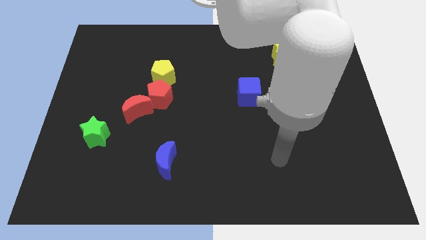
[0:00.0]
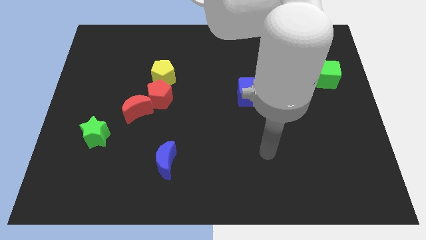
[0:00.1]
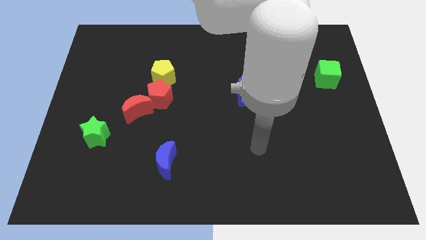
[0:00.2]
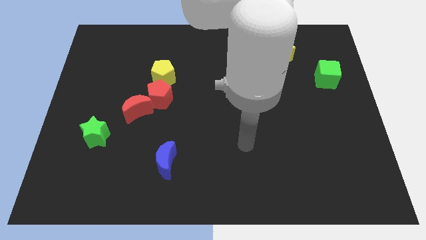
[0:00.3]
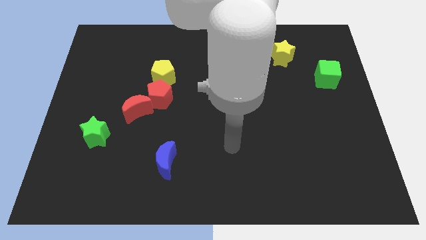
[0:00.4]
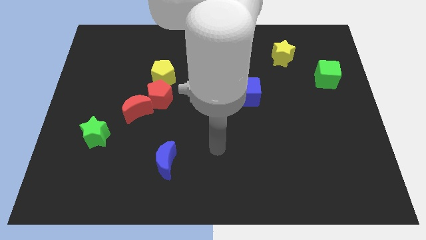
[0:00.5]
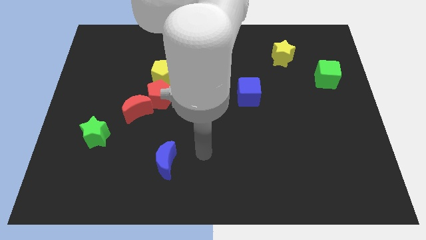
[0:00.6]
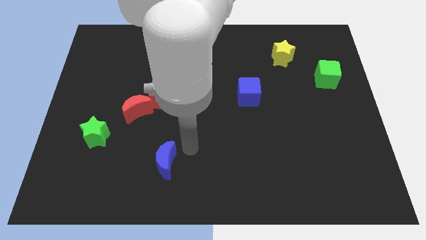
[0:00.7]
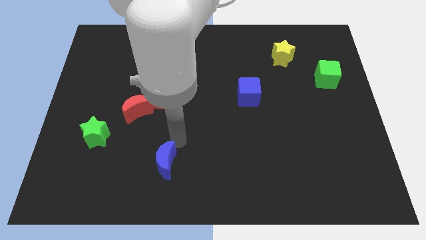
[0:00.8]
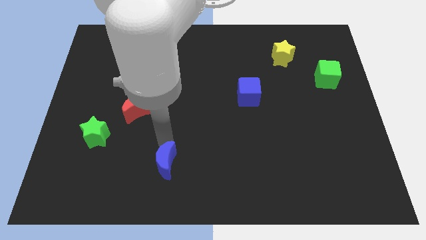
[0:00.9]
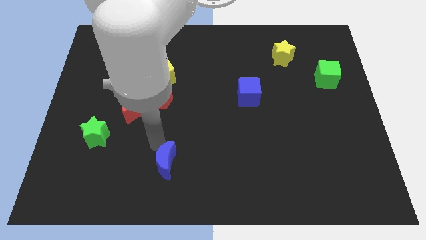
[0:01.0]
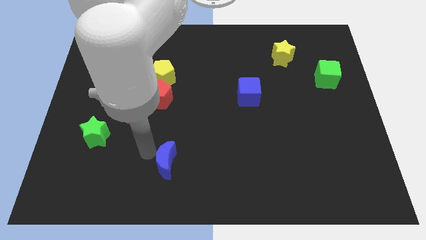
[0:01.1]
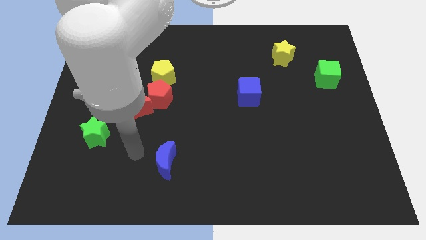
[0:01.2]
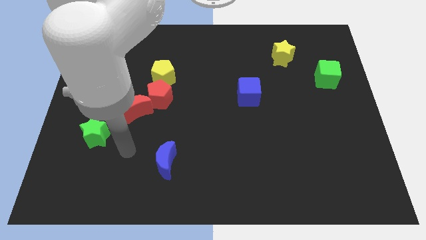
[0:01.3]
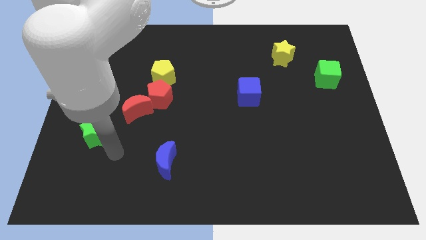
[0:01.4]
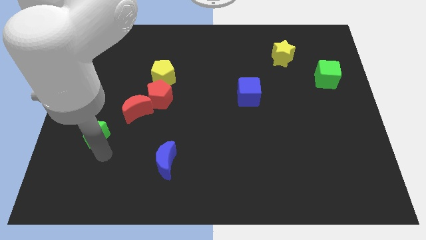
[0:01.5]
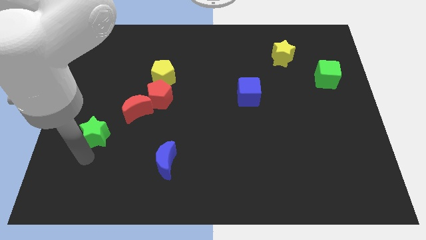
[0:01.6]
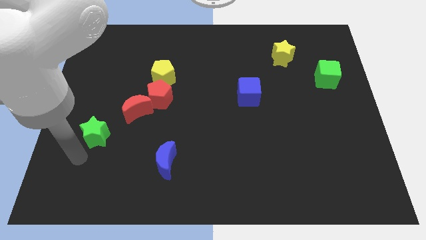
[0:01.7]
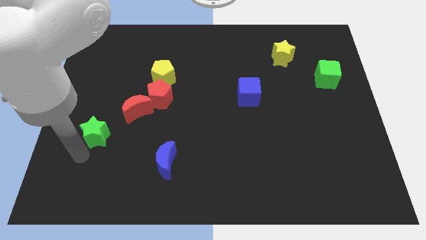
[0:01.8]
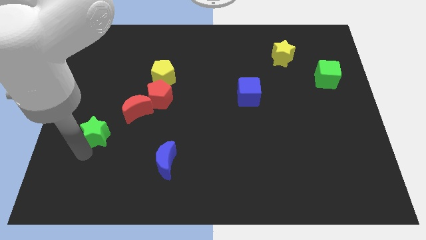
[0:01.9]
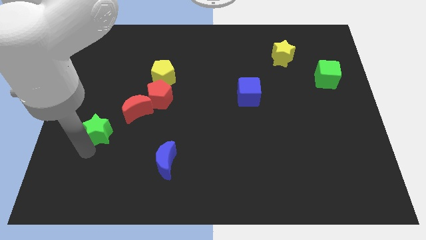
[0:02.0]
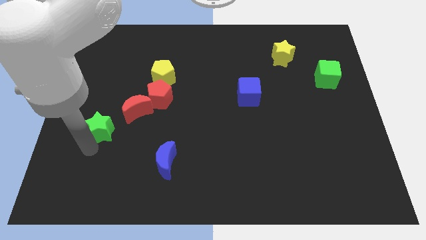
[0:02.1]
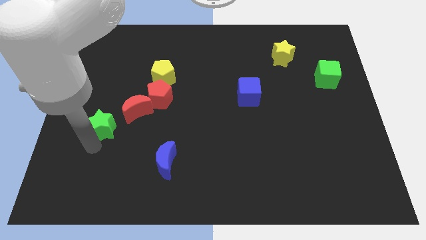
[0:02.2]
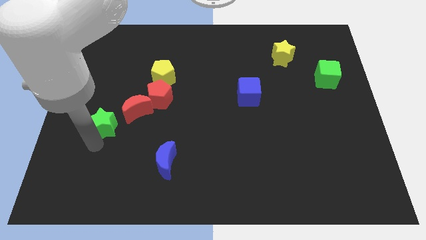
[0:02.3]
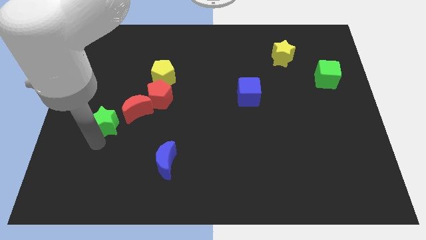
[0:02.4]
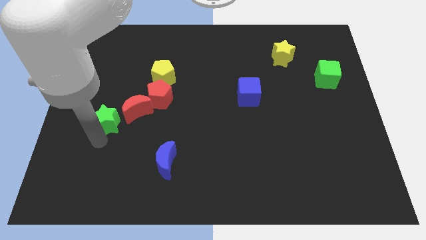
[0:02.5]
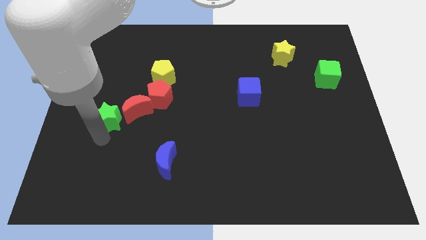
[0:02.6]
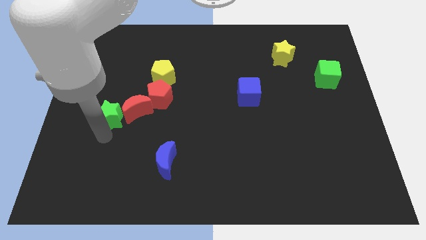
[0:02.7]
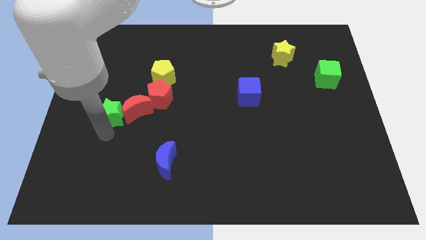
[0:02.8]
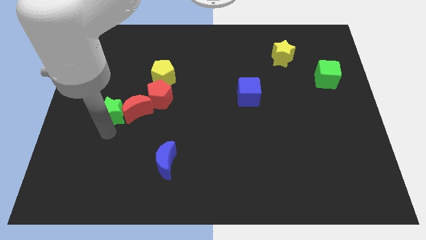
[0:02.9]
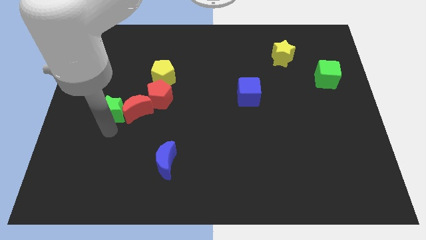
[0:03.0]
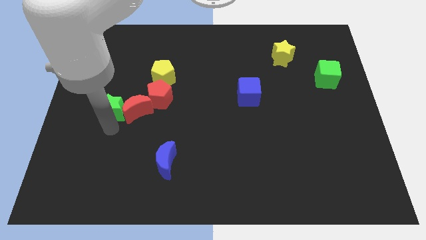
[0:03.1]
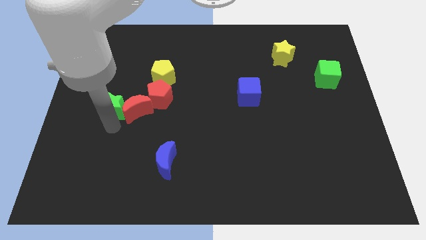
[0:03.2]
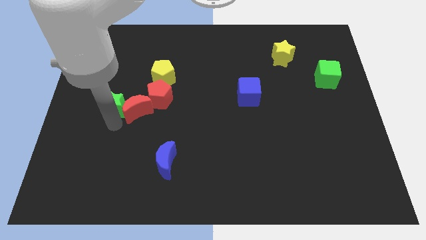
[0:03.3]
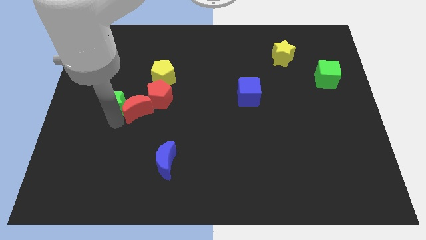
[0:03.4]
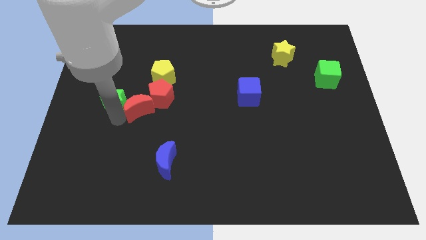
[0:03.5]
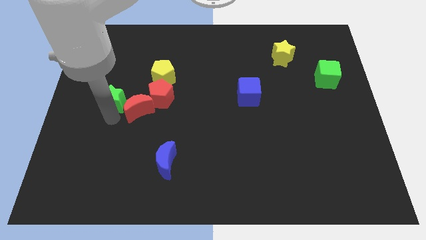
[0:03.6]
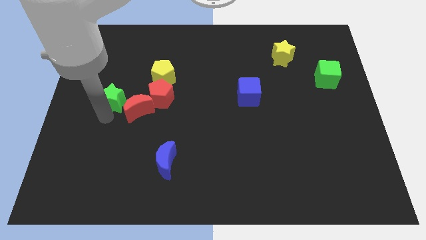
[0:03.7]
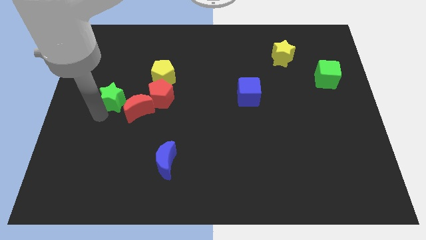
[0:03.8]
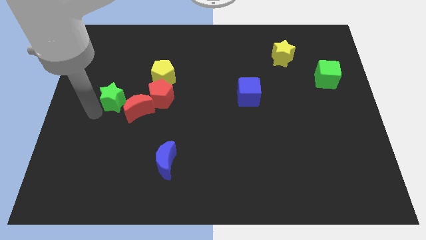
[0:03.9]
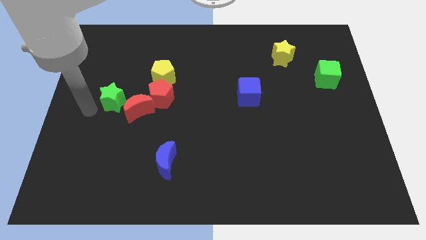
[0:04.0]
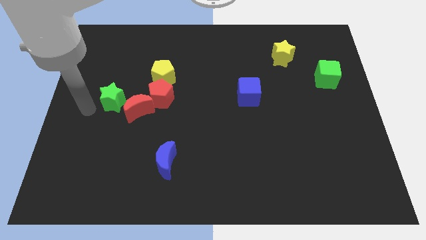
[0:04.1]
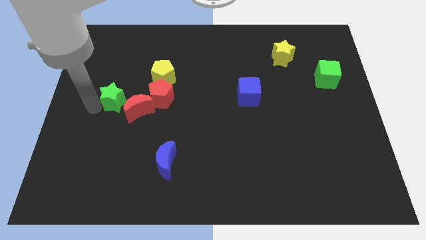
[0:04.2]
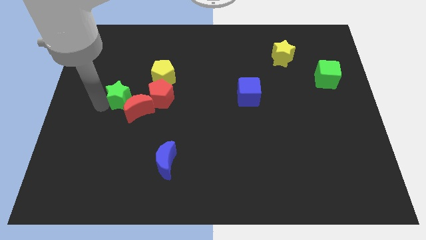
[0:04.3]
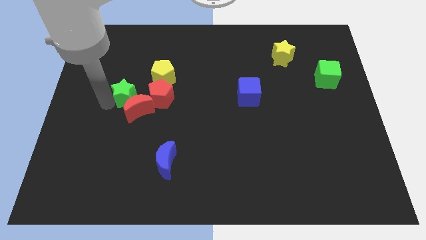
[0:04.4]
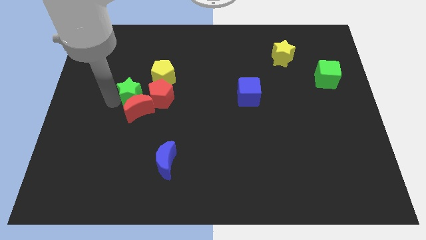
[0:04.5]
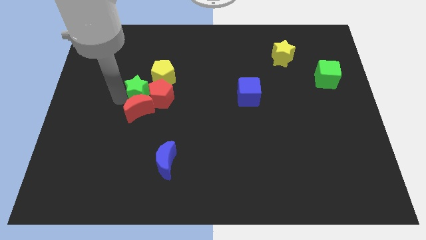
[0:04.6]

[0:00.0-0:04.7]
slide the green star to the red pentagon

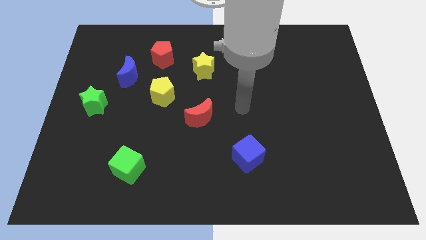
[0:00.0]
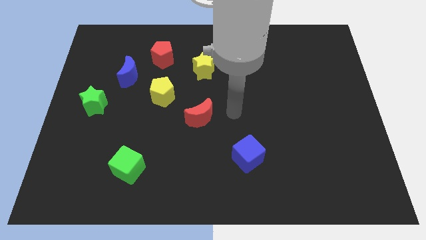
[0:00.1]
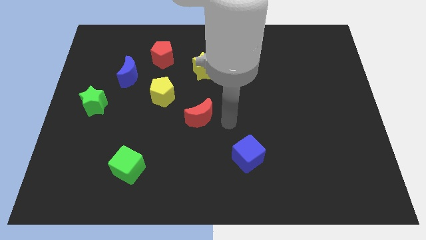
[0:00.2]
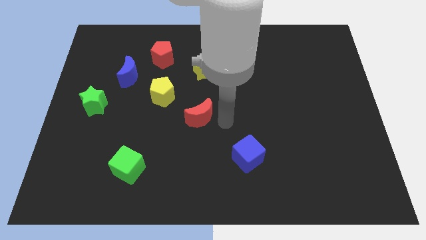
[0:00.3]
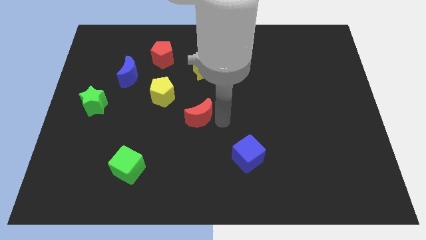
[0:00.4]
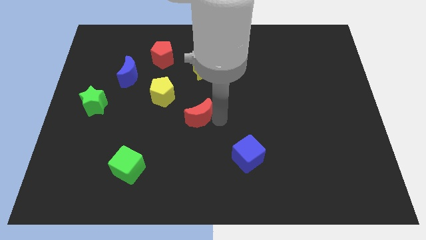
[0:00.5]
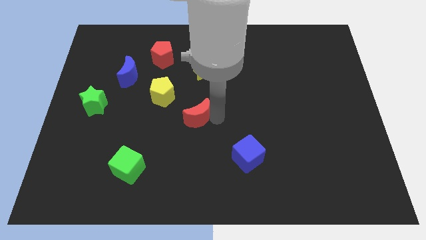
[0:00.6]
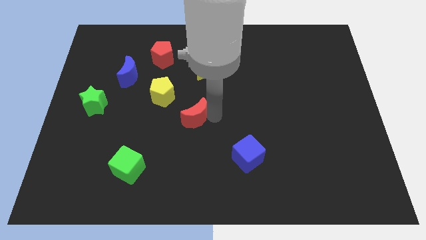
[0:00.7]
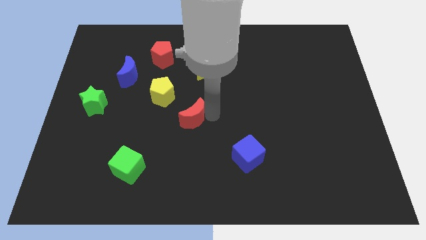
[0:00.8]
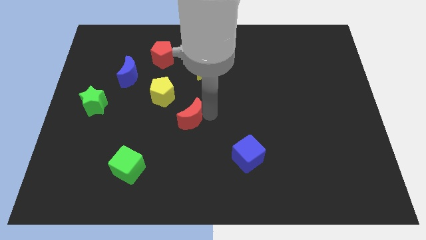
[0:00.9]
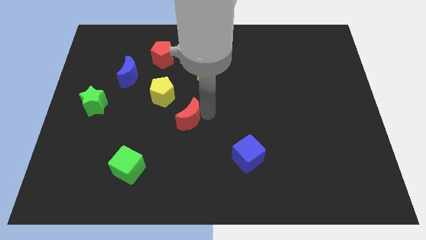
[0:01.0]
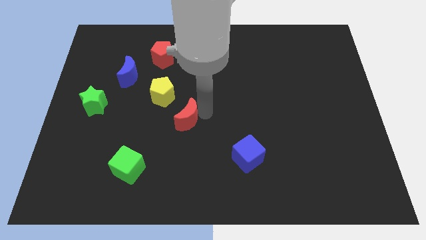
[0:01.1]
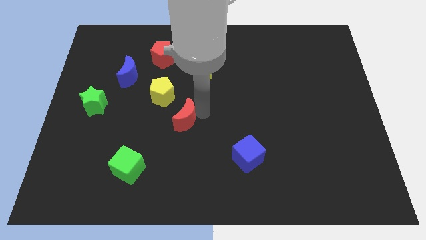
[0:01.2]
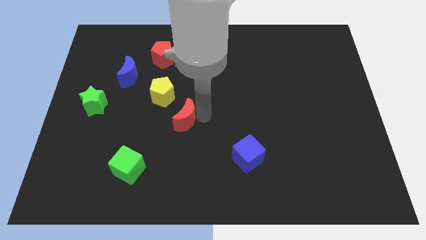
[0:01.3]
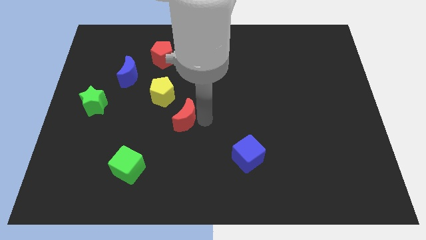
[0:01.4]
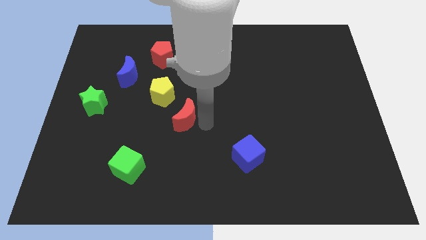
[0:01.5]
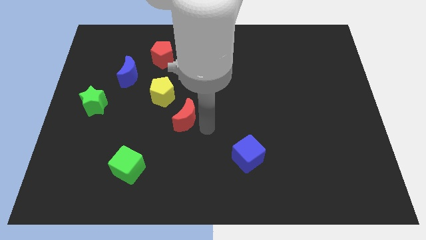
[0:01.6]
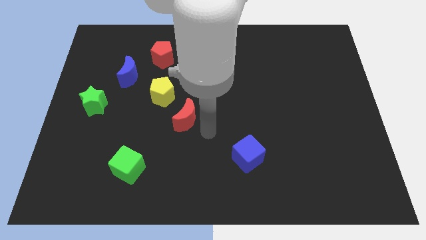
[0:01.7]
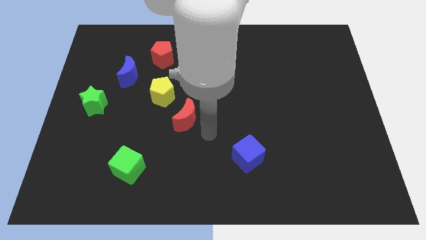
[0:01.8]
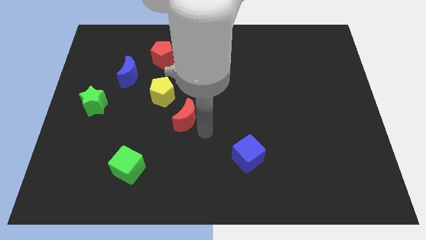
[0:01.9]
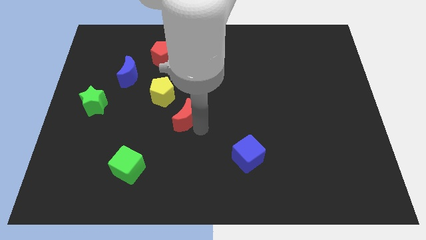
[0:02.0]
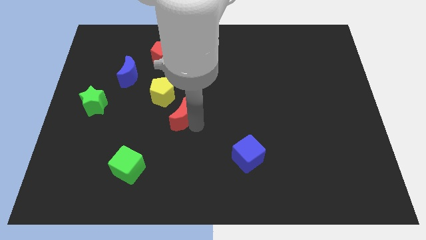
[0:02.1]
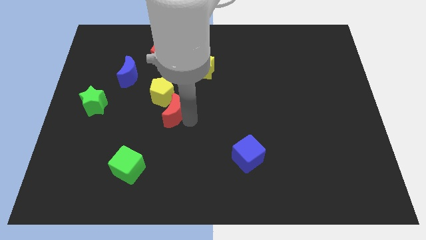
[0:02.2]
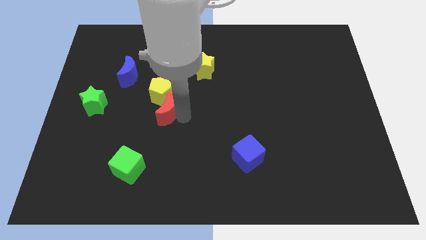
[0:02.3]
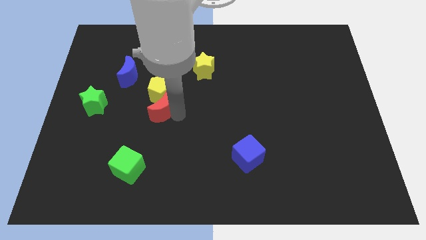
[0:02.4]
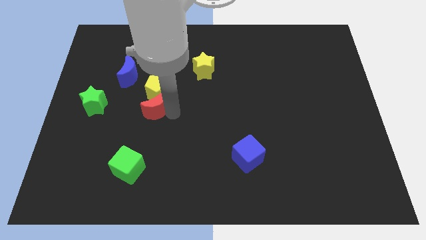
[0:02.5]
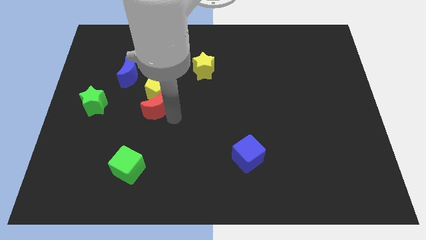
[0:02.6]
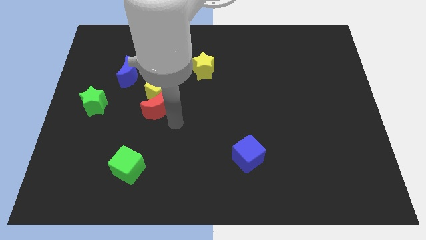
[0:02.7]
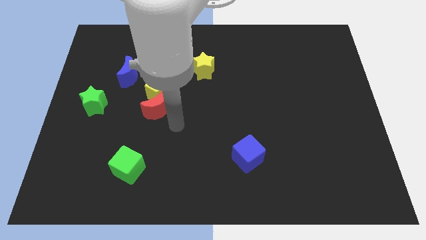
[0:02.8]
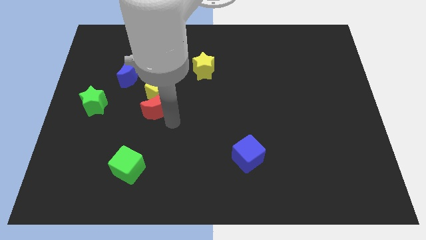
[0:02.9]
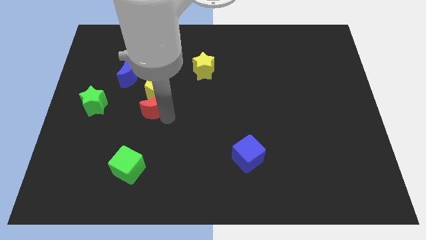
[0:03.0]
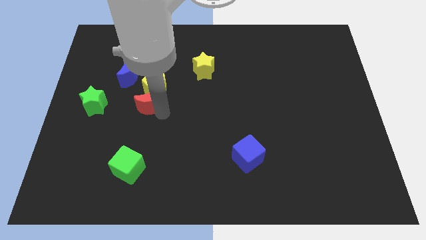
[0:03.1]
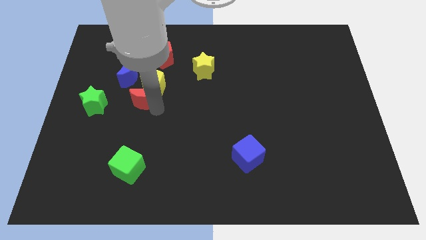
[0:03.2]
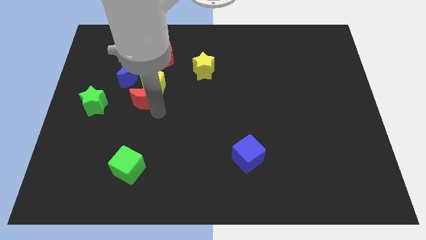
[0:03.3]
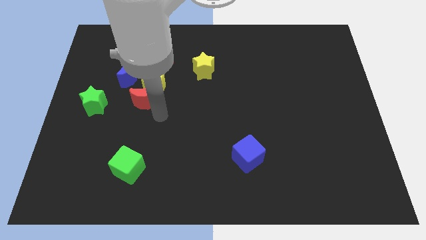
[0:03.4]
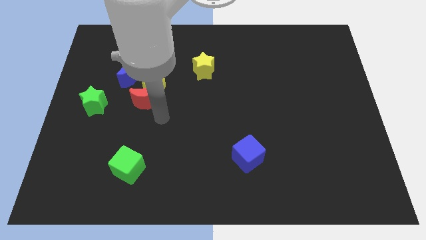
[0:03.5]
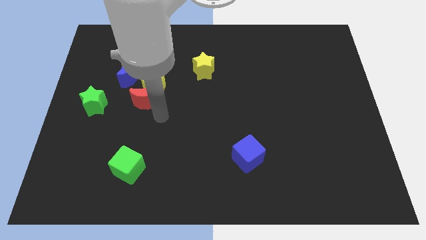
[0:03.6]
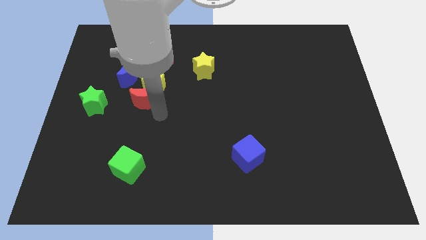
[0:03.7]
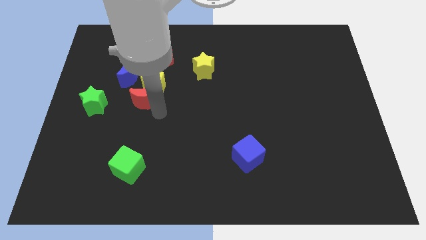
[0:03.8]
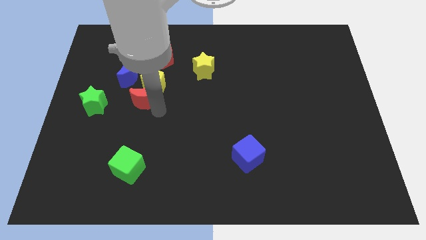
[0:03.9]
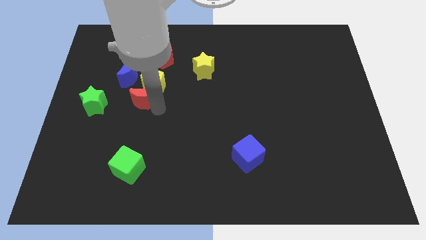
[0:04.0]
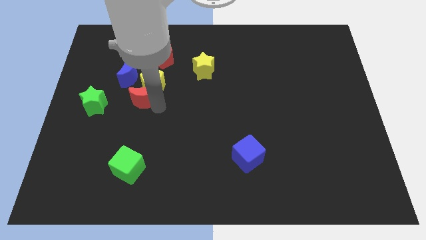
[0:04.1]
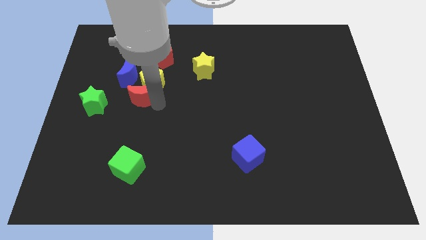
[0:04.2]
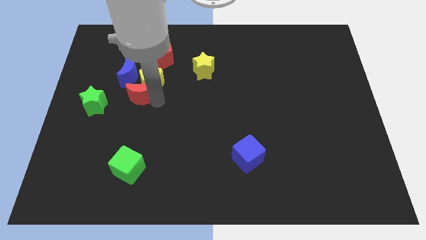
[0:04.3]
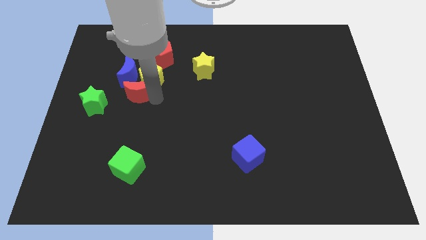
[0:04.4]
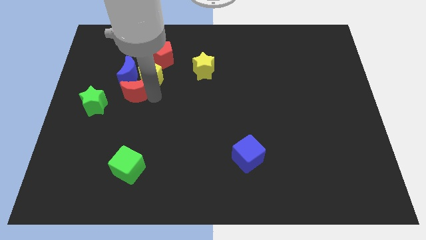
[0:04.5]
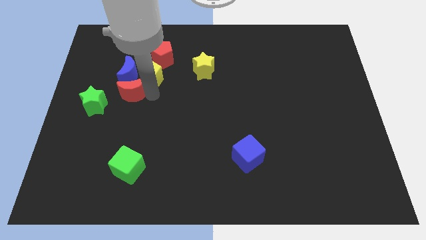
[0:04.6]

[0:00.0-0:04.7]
push the red moon towards the blue moon
